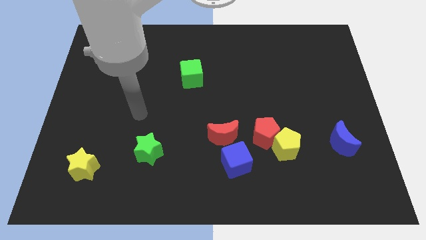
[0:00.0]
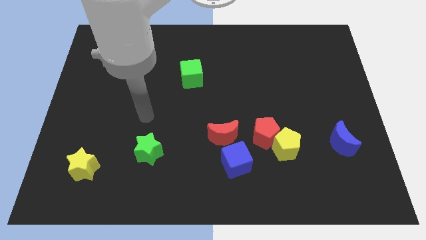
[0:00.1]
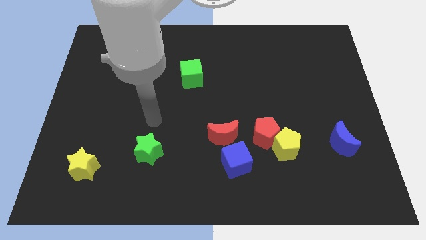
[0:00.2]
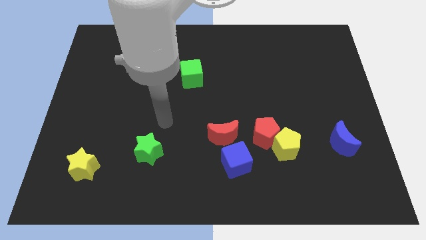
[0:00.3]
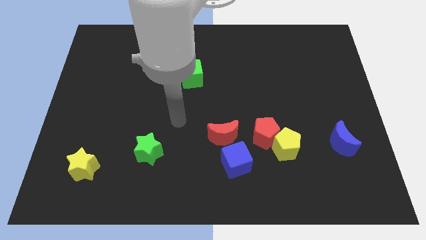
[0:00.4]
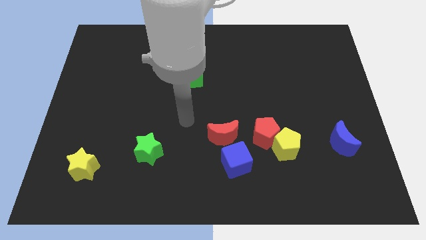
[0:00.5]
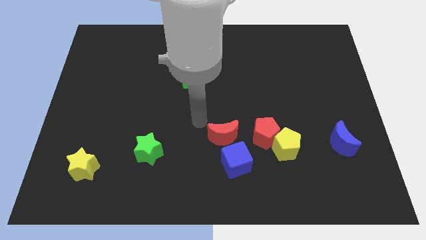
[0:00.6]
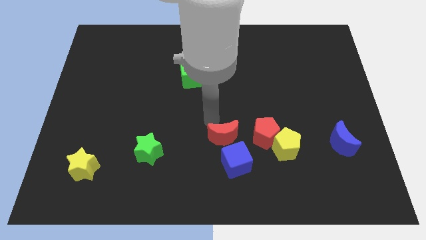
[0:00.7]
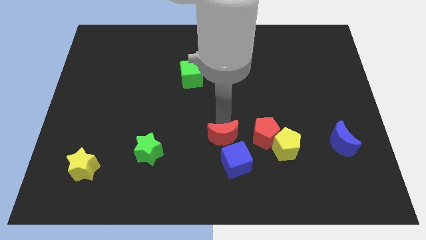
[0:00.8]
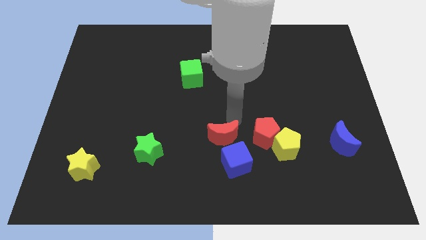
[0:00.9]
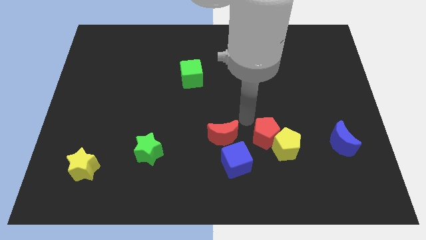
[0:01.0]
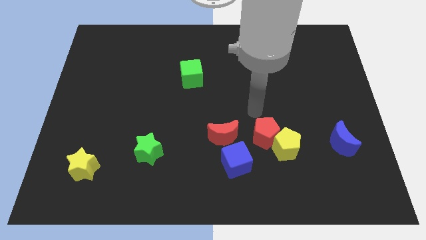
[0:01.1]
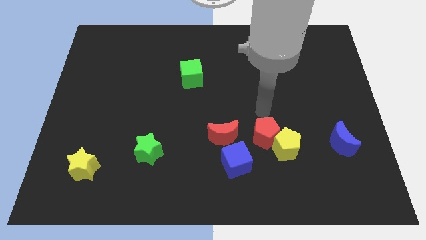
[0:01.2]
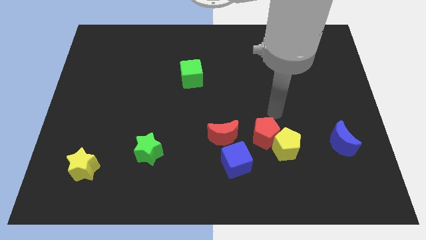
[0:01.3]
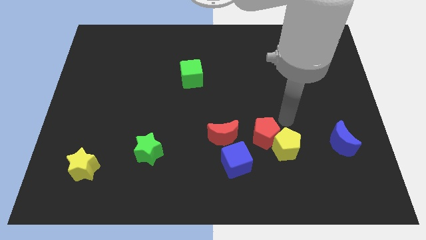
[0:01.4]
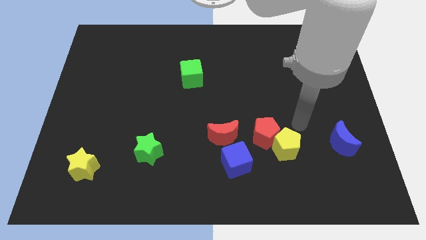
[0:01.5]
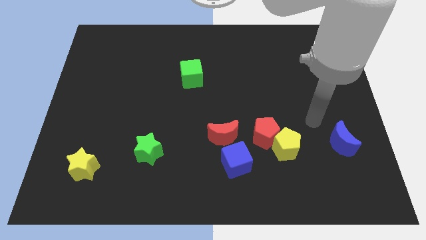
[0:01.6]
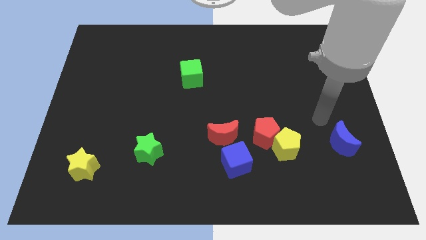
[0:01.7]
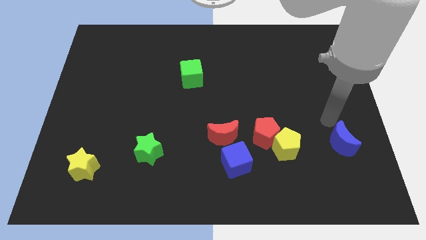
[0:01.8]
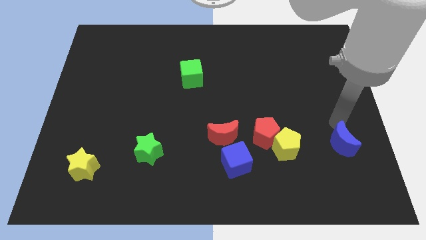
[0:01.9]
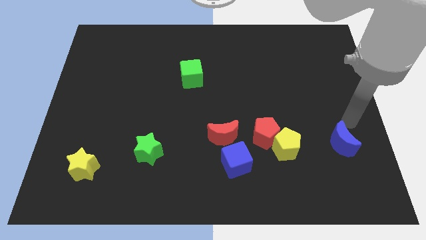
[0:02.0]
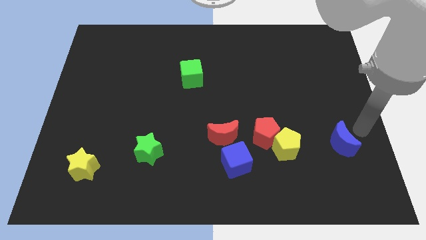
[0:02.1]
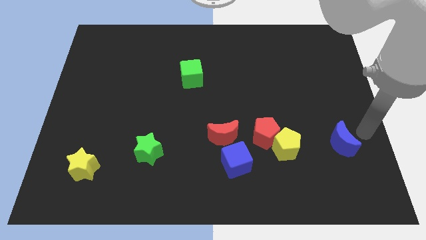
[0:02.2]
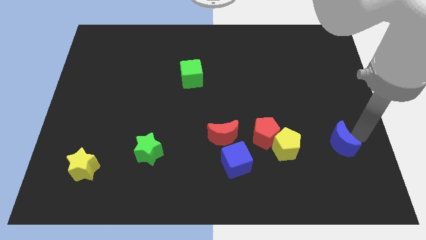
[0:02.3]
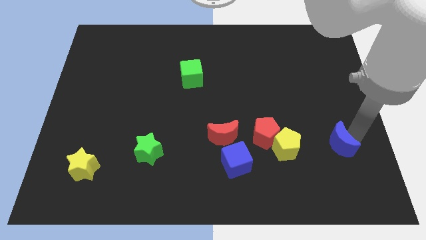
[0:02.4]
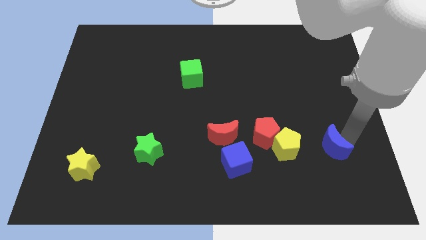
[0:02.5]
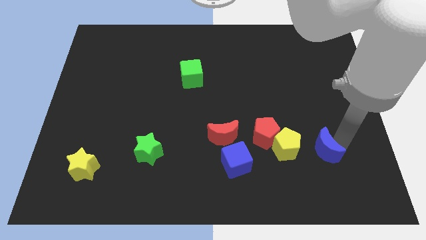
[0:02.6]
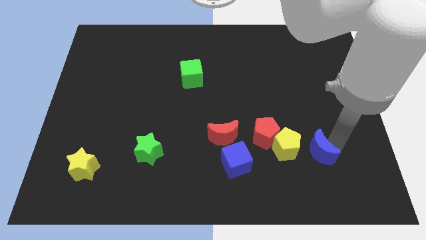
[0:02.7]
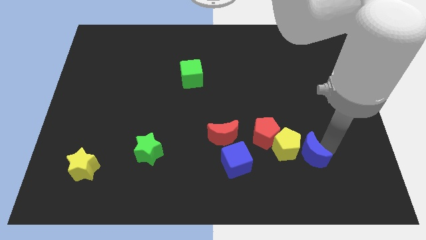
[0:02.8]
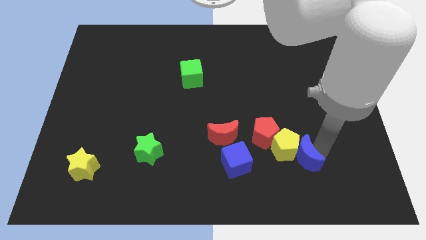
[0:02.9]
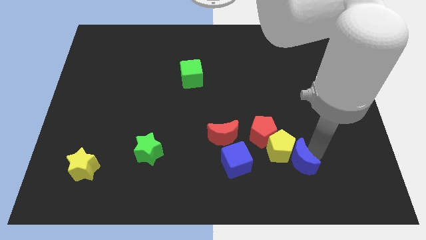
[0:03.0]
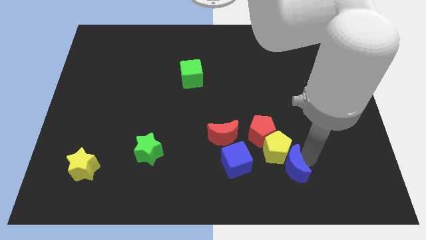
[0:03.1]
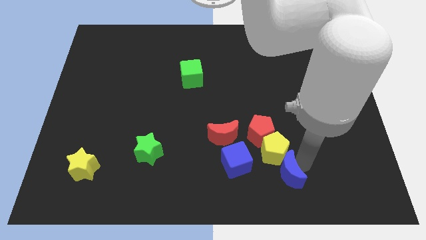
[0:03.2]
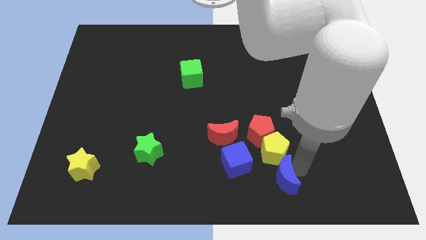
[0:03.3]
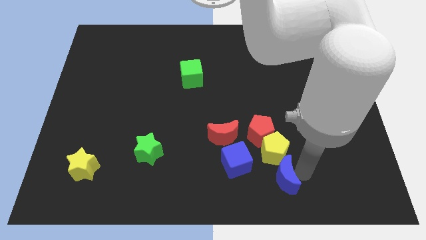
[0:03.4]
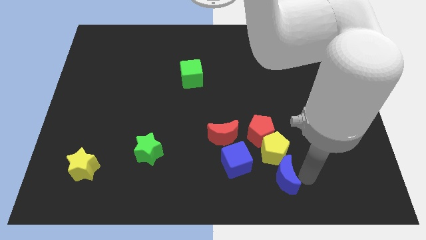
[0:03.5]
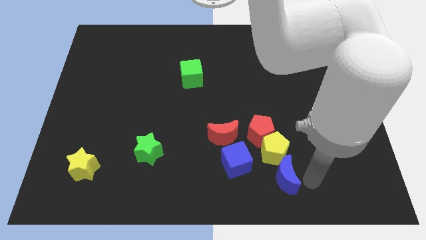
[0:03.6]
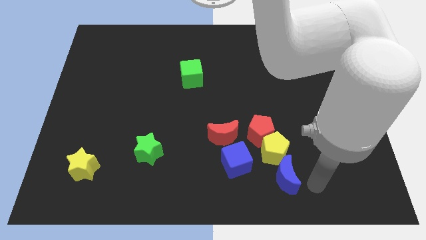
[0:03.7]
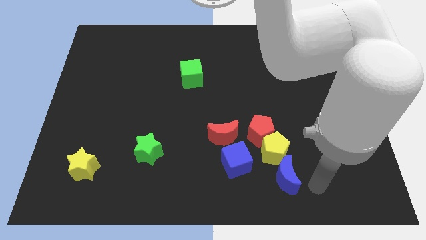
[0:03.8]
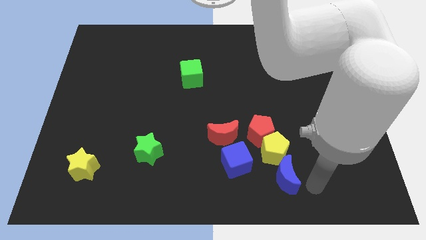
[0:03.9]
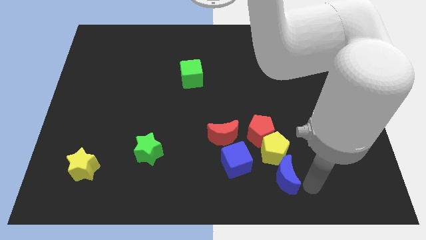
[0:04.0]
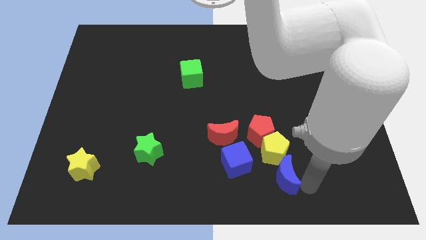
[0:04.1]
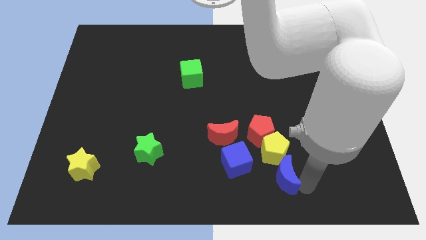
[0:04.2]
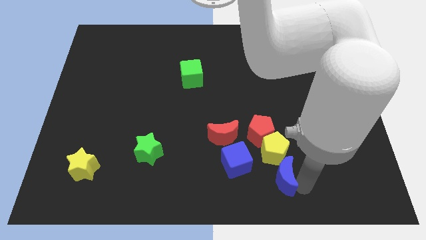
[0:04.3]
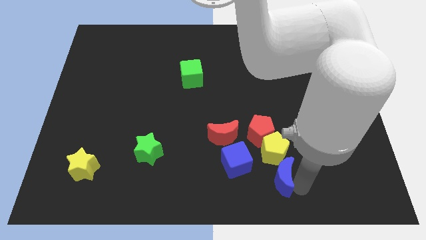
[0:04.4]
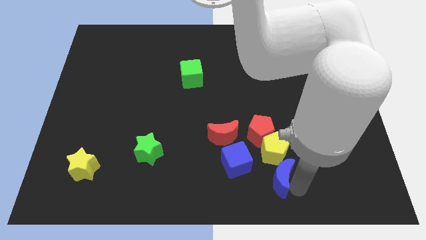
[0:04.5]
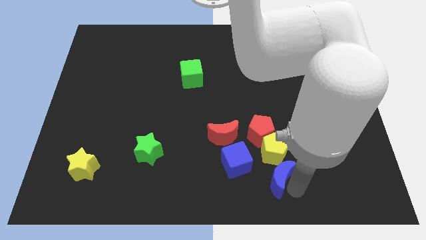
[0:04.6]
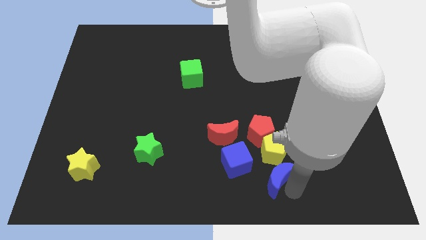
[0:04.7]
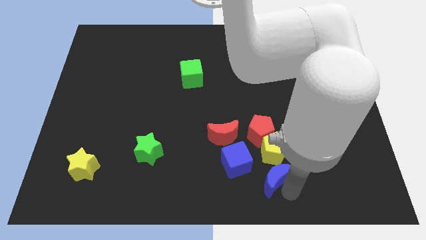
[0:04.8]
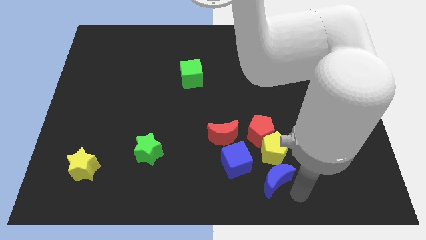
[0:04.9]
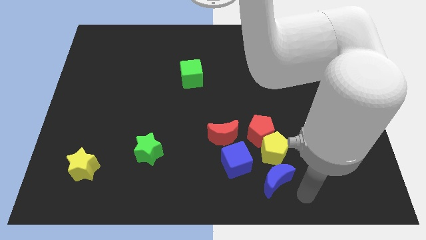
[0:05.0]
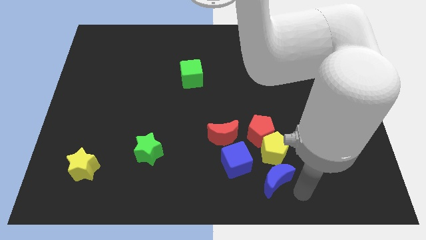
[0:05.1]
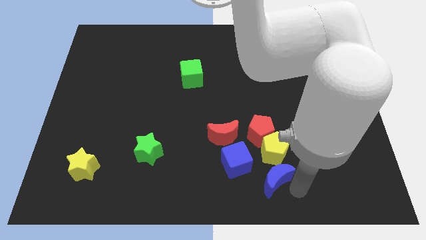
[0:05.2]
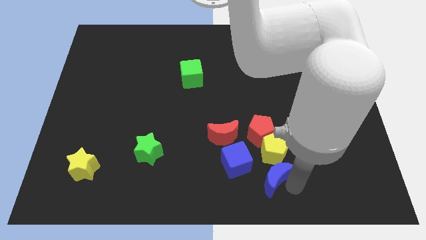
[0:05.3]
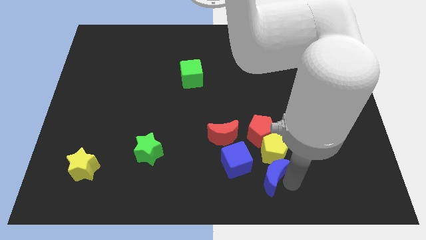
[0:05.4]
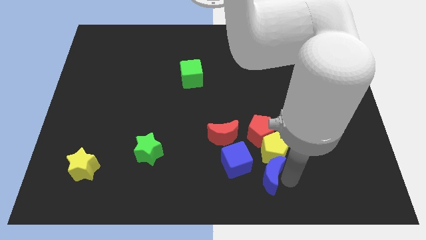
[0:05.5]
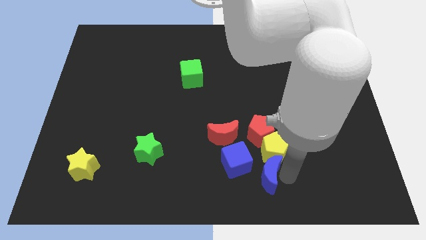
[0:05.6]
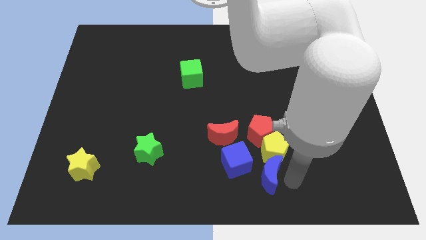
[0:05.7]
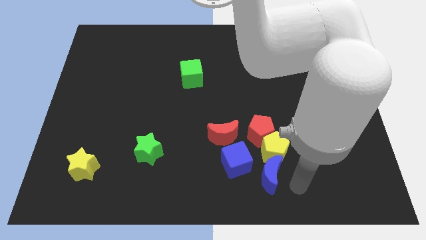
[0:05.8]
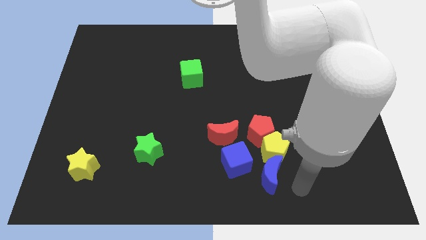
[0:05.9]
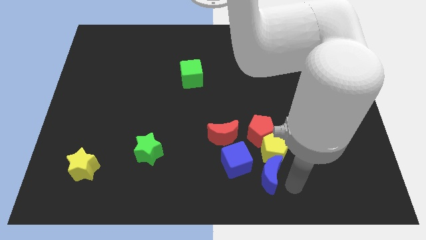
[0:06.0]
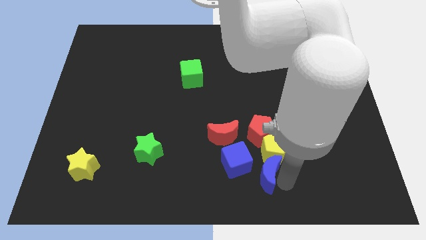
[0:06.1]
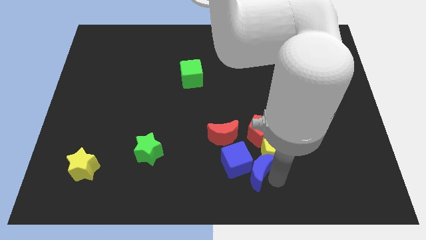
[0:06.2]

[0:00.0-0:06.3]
push the blue moon to the blue cube

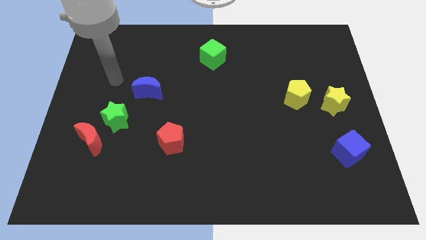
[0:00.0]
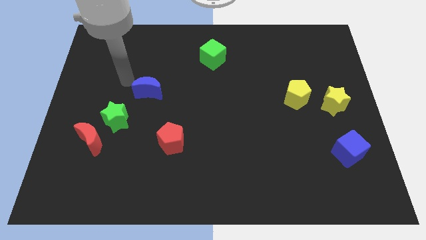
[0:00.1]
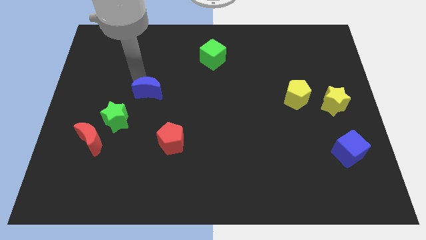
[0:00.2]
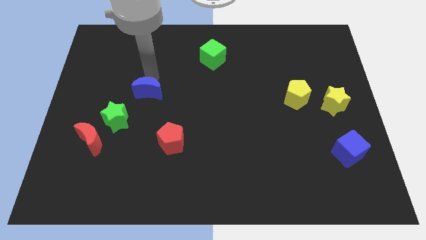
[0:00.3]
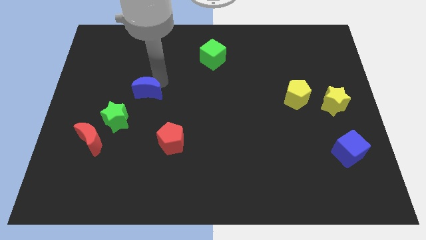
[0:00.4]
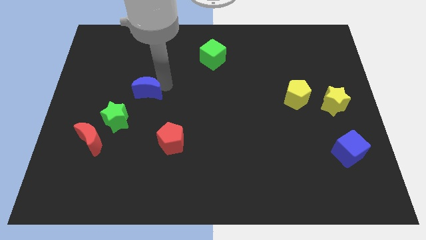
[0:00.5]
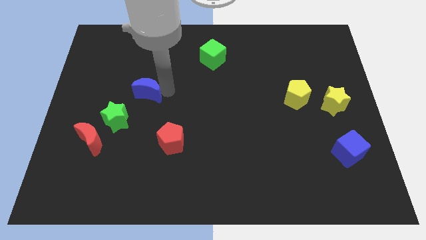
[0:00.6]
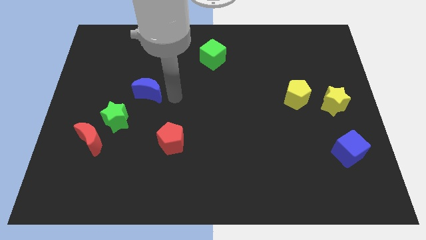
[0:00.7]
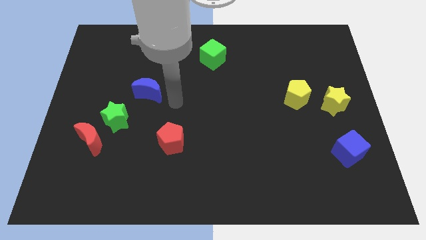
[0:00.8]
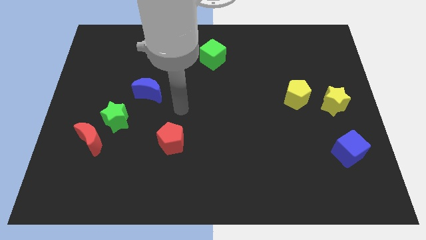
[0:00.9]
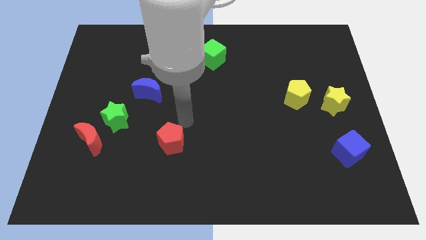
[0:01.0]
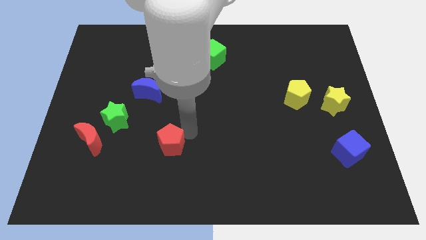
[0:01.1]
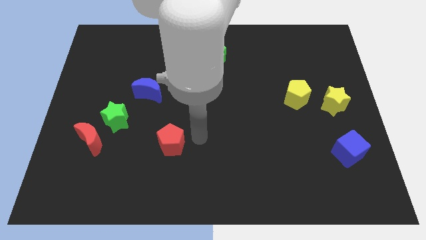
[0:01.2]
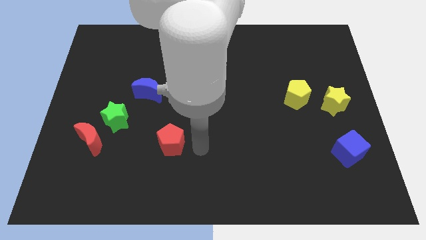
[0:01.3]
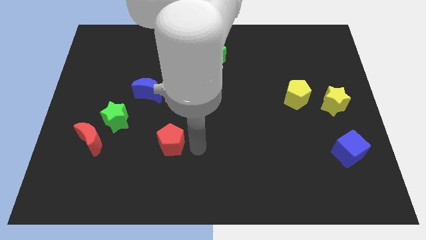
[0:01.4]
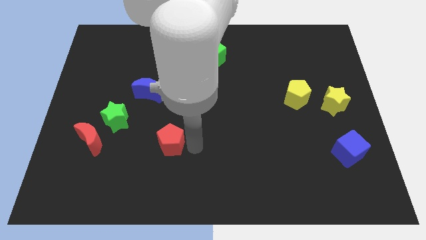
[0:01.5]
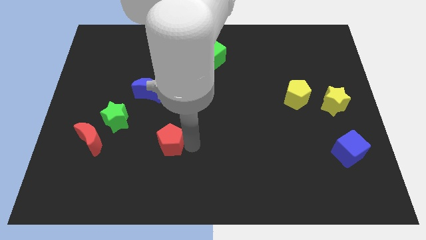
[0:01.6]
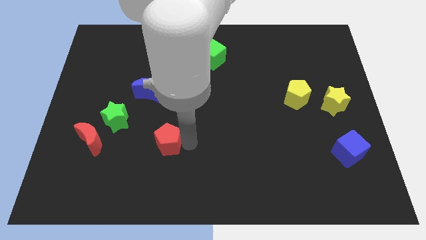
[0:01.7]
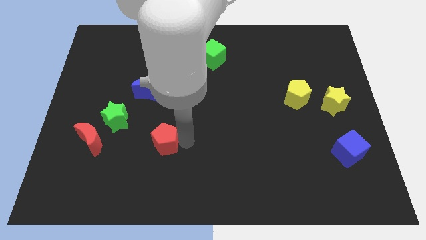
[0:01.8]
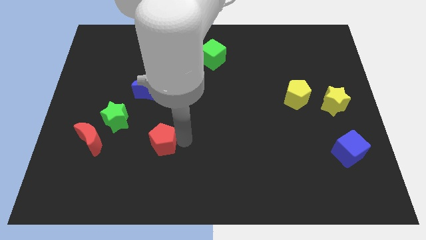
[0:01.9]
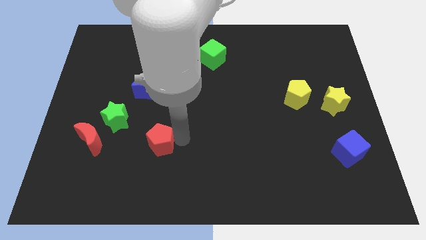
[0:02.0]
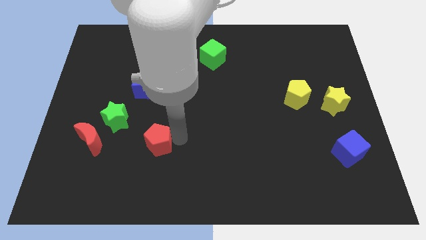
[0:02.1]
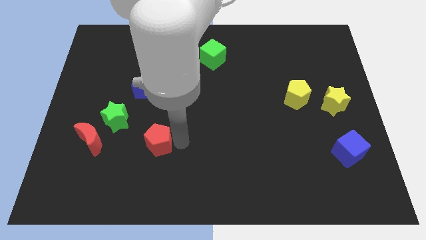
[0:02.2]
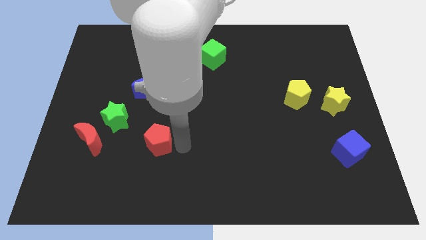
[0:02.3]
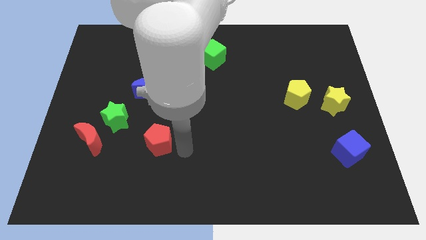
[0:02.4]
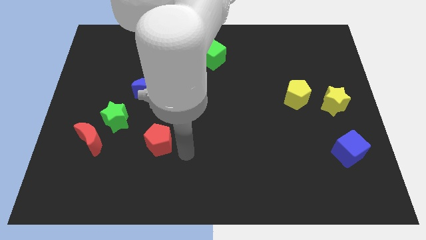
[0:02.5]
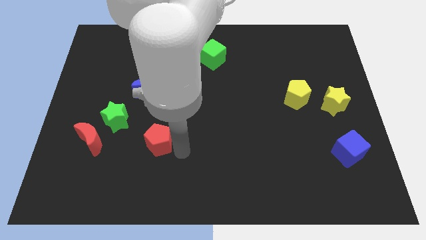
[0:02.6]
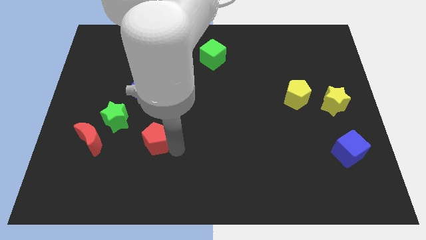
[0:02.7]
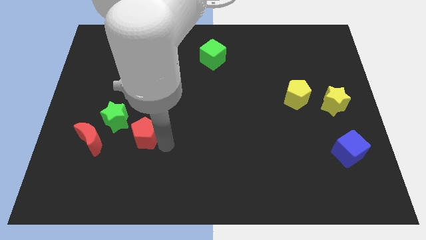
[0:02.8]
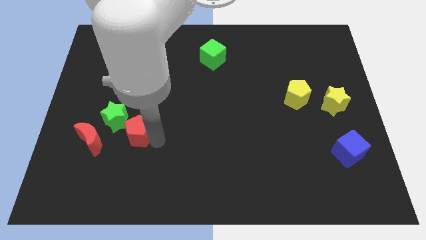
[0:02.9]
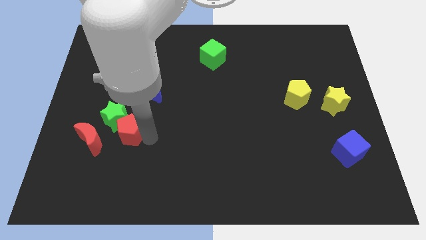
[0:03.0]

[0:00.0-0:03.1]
move the red pentagon to the green star
